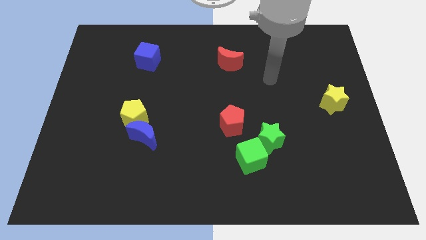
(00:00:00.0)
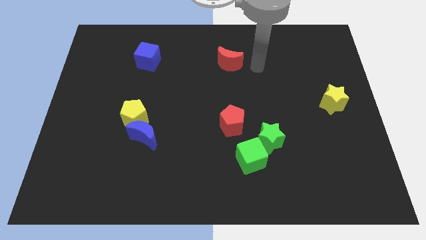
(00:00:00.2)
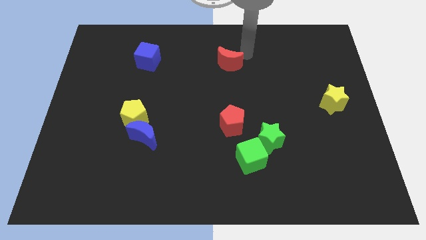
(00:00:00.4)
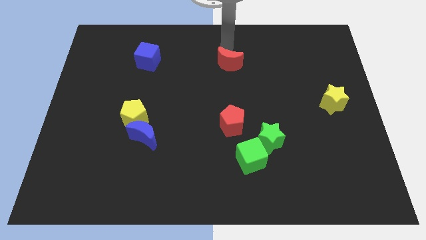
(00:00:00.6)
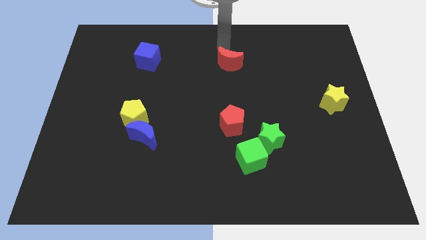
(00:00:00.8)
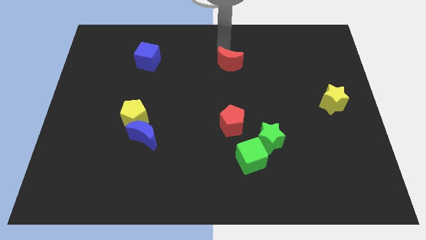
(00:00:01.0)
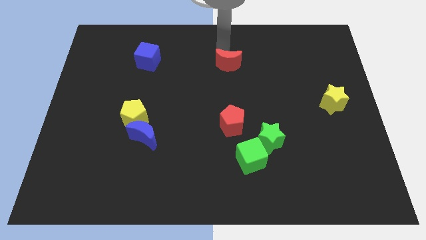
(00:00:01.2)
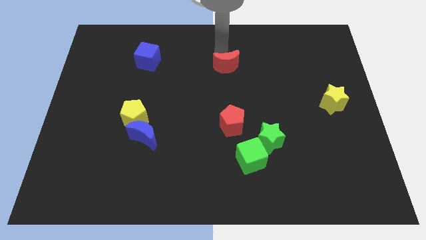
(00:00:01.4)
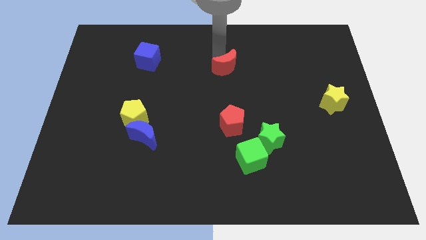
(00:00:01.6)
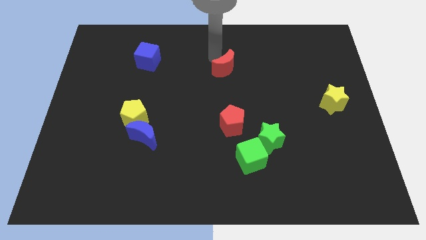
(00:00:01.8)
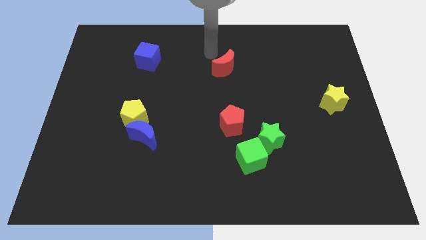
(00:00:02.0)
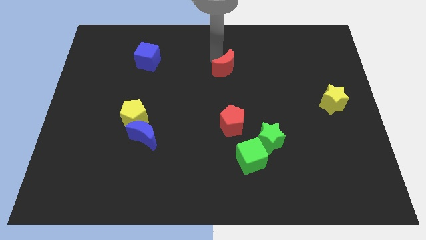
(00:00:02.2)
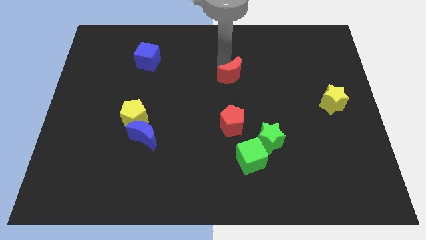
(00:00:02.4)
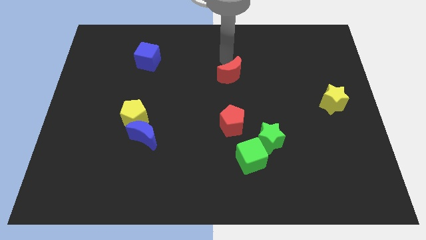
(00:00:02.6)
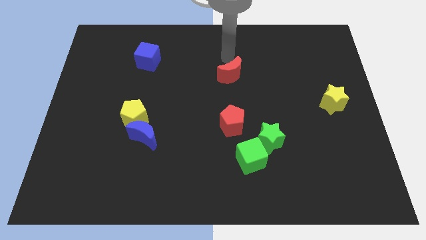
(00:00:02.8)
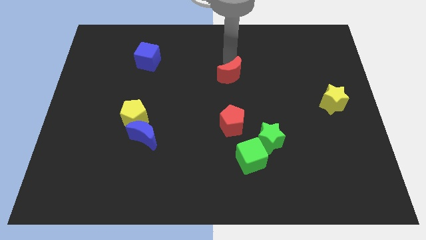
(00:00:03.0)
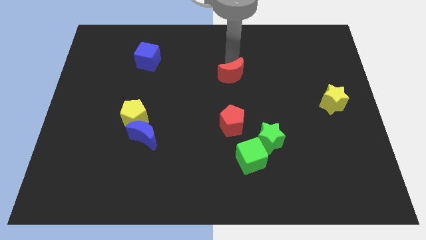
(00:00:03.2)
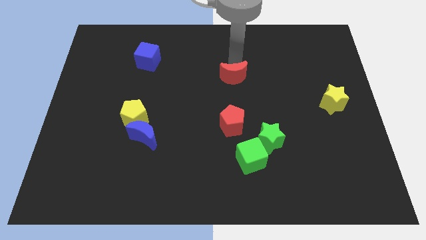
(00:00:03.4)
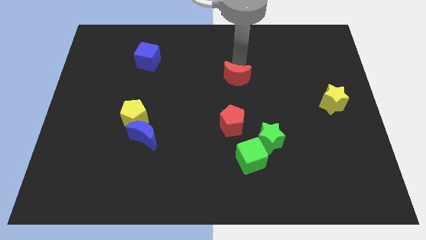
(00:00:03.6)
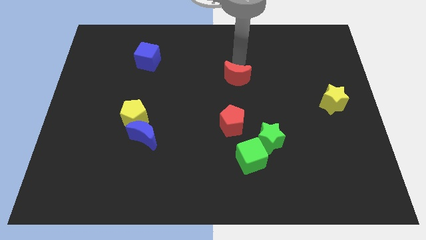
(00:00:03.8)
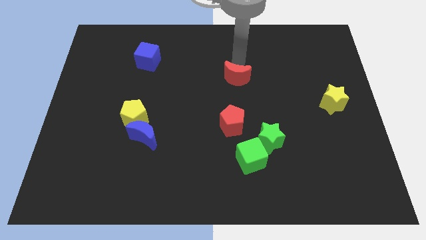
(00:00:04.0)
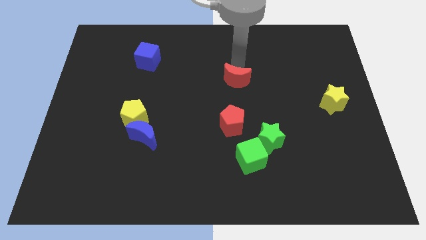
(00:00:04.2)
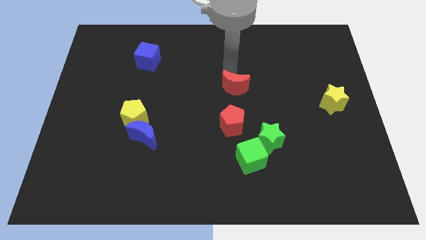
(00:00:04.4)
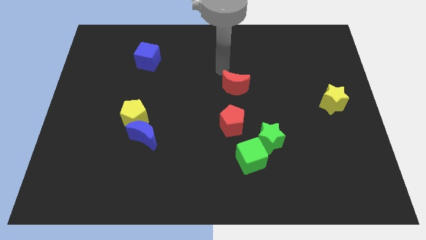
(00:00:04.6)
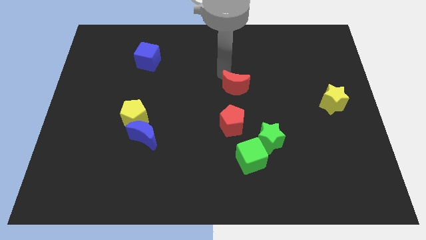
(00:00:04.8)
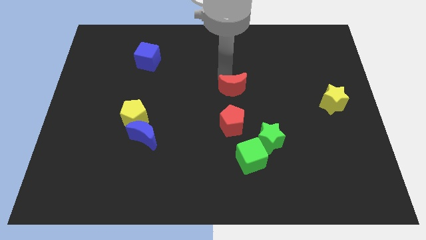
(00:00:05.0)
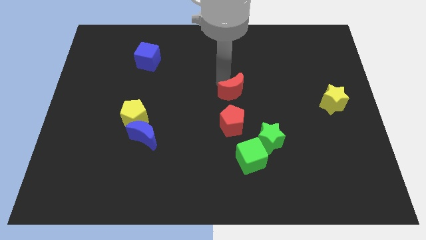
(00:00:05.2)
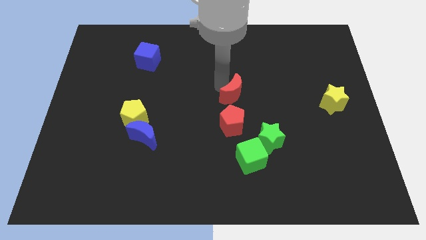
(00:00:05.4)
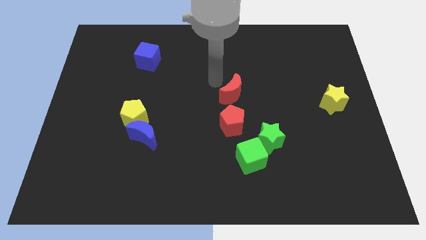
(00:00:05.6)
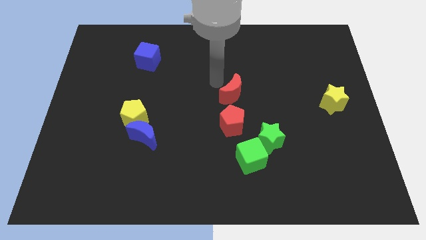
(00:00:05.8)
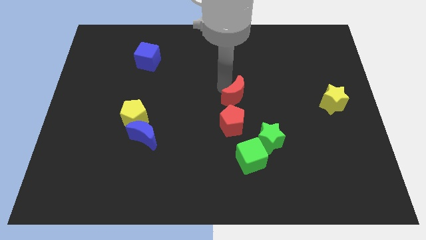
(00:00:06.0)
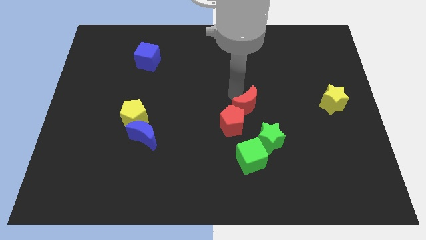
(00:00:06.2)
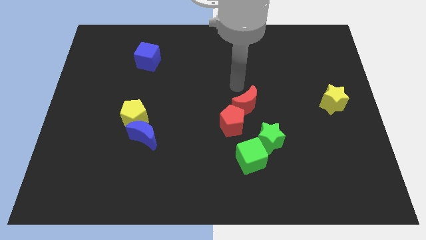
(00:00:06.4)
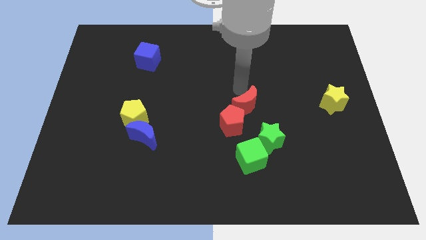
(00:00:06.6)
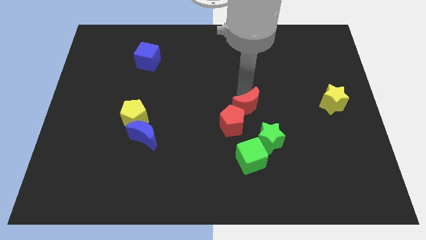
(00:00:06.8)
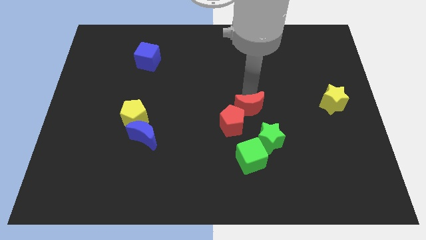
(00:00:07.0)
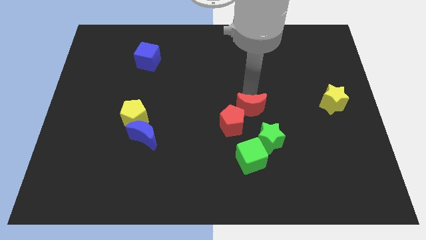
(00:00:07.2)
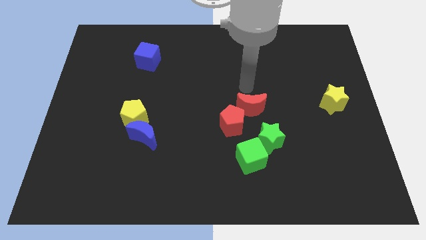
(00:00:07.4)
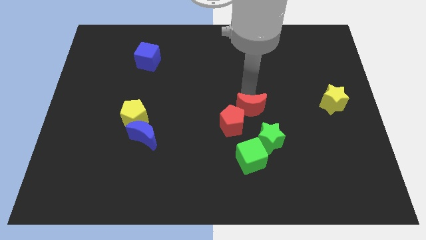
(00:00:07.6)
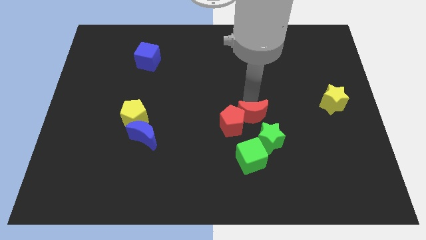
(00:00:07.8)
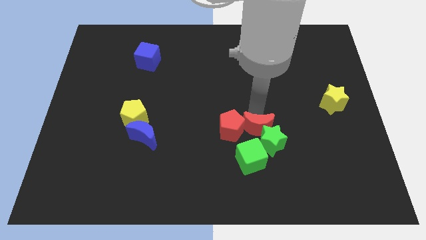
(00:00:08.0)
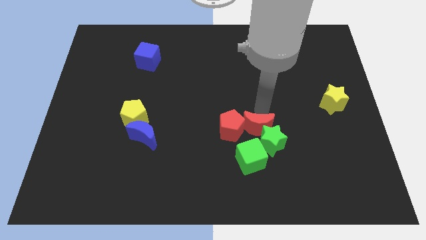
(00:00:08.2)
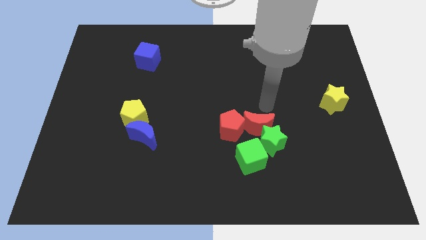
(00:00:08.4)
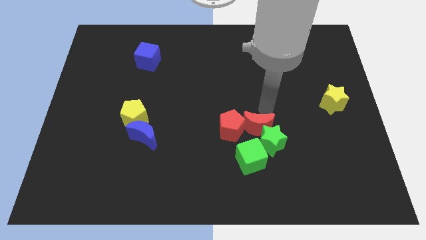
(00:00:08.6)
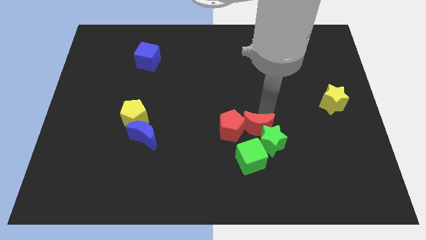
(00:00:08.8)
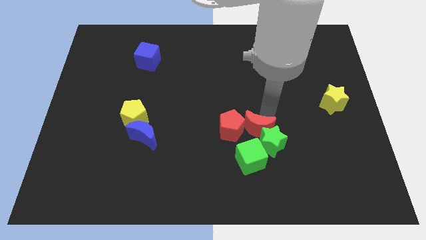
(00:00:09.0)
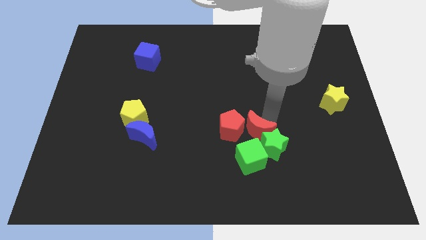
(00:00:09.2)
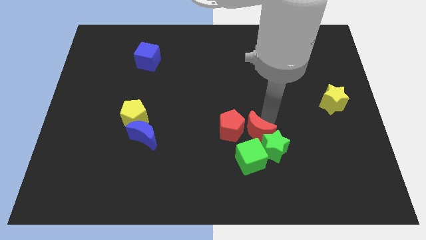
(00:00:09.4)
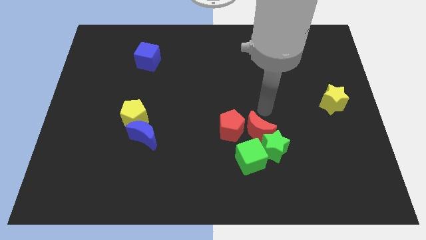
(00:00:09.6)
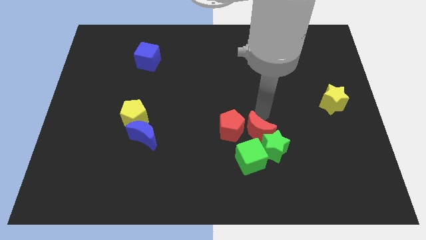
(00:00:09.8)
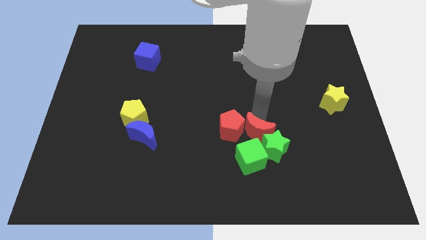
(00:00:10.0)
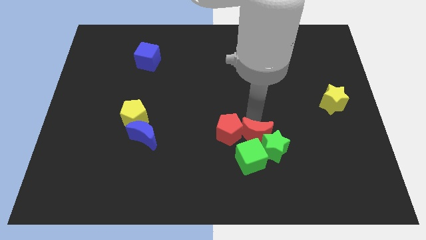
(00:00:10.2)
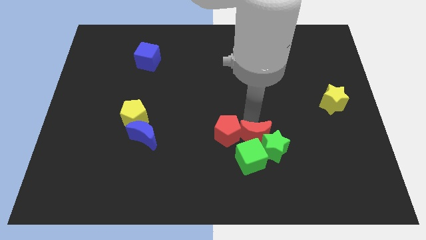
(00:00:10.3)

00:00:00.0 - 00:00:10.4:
push the red moon to the green cube

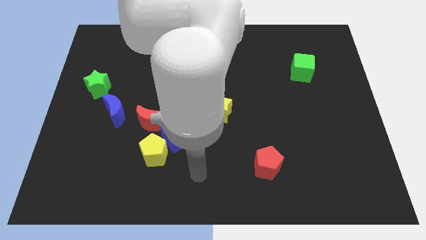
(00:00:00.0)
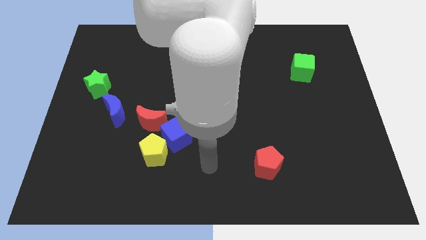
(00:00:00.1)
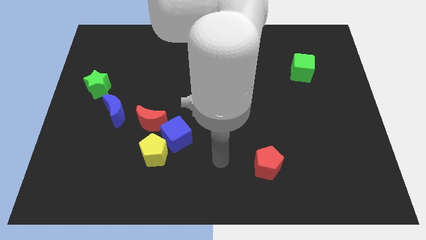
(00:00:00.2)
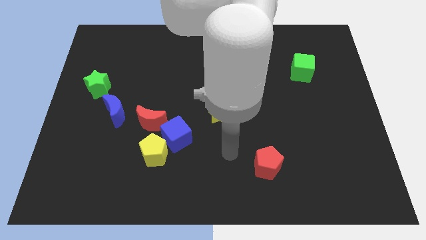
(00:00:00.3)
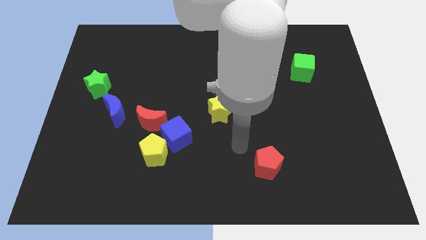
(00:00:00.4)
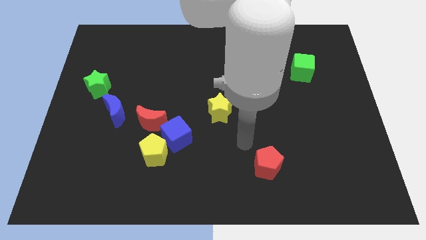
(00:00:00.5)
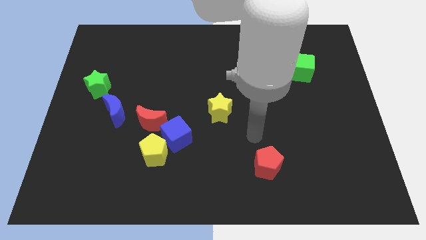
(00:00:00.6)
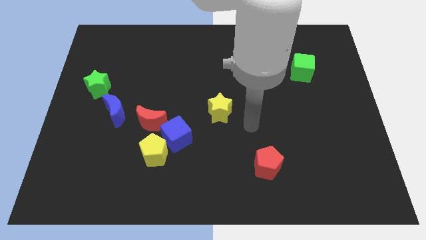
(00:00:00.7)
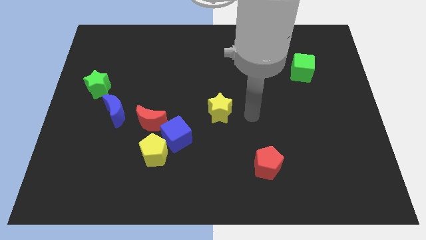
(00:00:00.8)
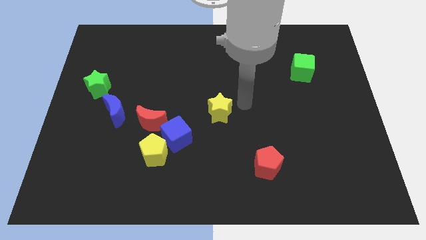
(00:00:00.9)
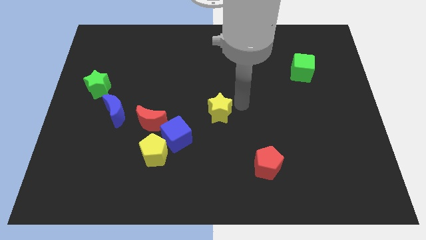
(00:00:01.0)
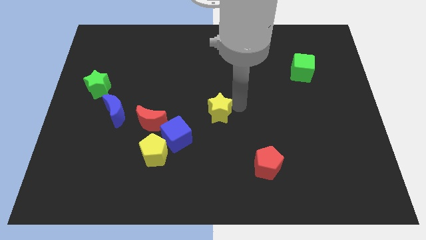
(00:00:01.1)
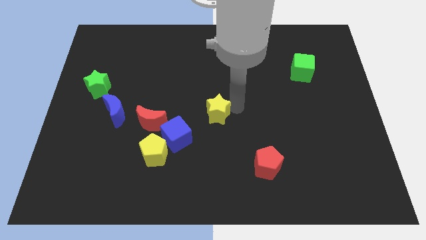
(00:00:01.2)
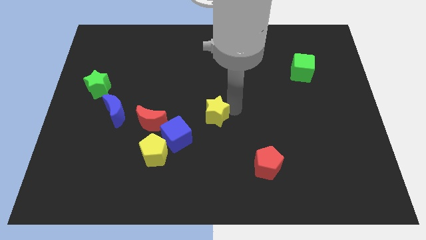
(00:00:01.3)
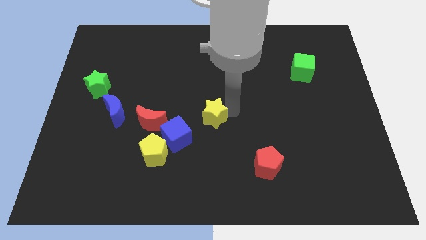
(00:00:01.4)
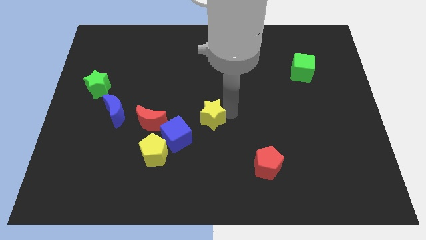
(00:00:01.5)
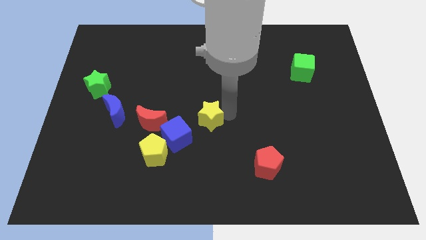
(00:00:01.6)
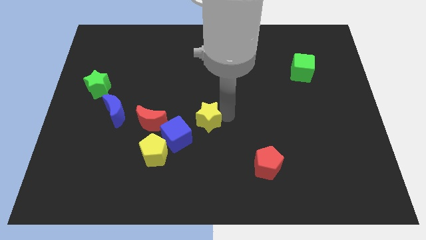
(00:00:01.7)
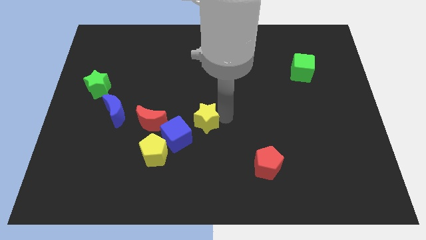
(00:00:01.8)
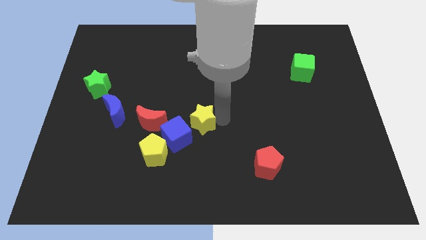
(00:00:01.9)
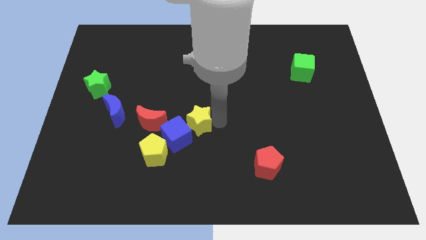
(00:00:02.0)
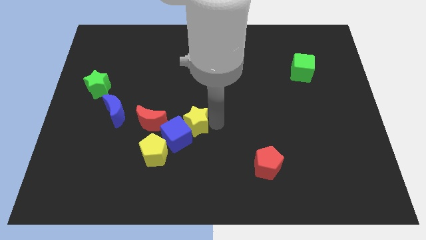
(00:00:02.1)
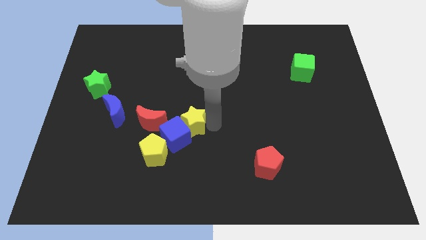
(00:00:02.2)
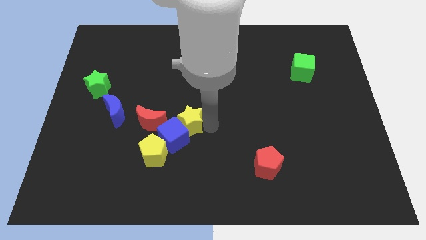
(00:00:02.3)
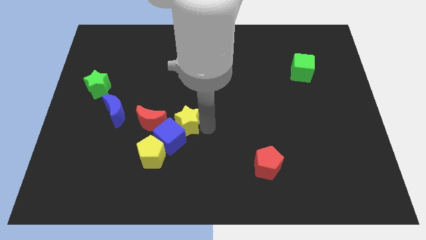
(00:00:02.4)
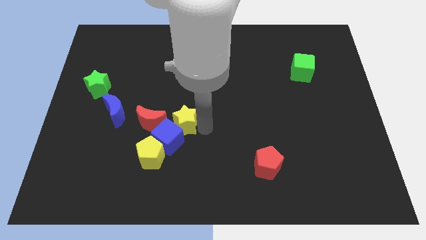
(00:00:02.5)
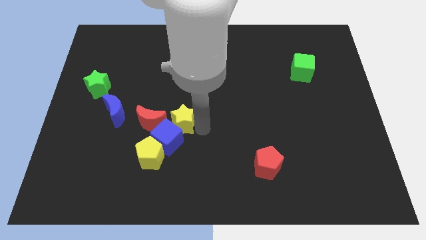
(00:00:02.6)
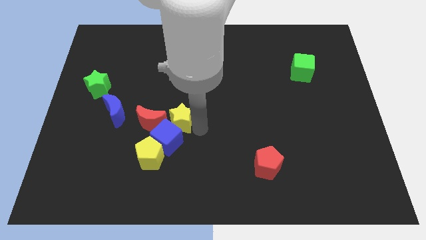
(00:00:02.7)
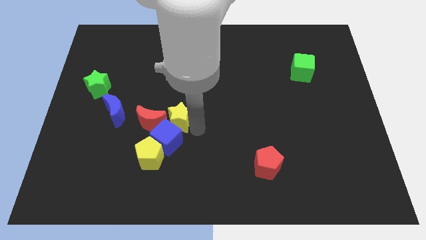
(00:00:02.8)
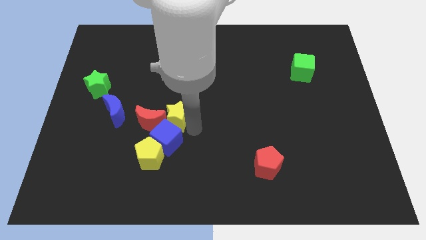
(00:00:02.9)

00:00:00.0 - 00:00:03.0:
slide the yellow star close to the red moon

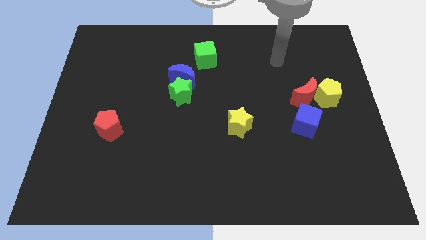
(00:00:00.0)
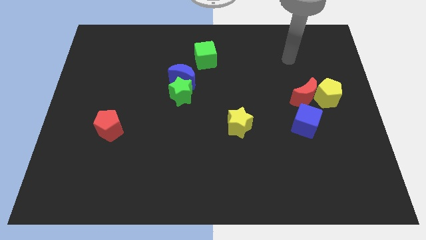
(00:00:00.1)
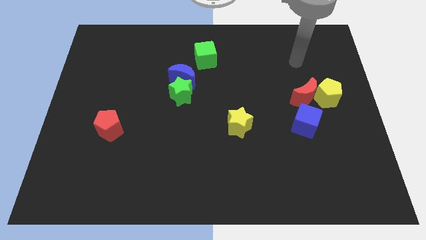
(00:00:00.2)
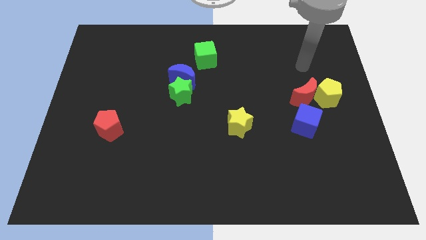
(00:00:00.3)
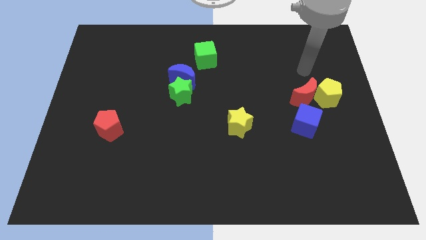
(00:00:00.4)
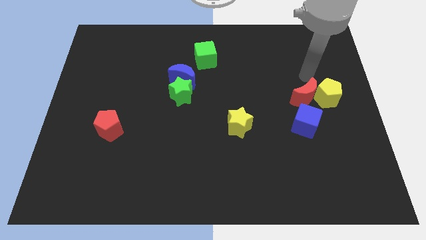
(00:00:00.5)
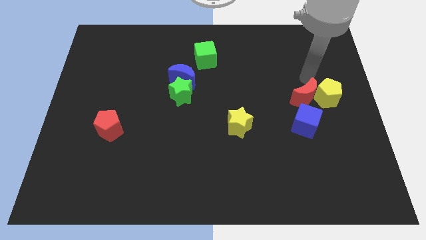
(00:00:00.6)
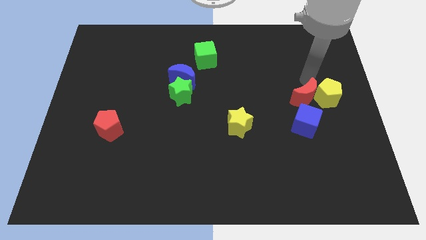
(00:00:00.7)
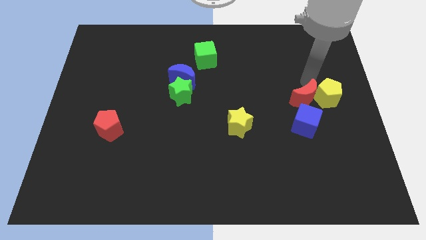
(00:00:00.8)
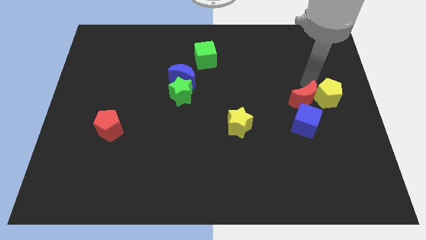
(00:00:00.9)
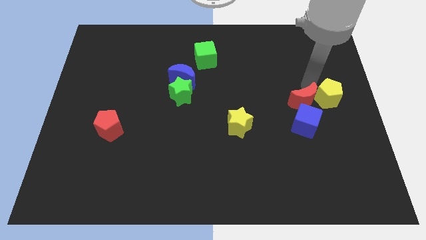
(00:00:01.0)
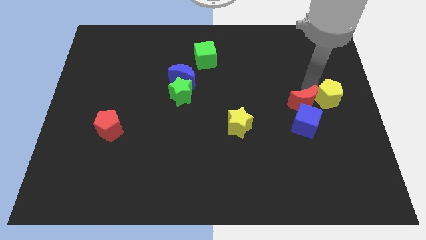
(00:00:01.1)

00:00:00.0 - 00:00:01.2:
slide the red moon to the blue cube
